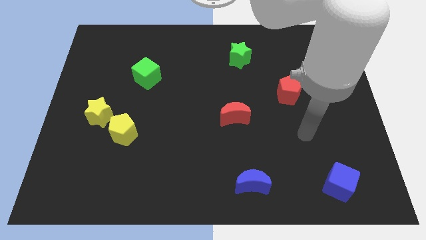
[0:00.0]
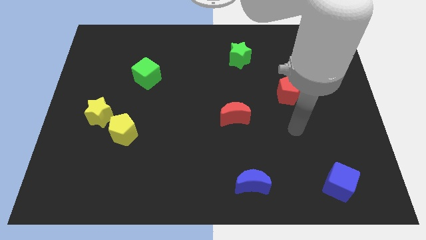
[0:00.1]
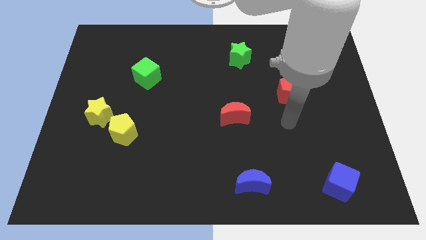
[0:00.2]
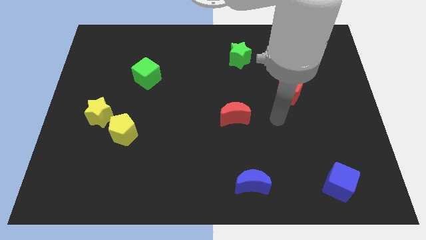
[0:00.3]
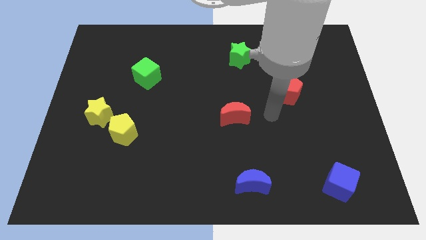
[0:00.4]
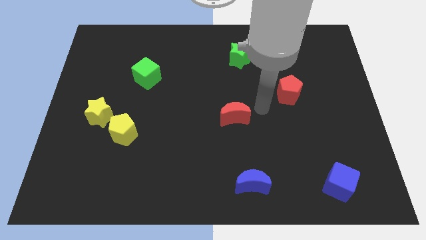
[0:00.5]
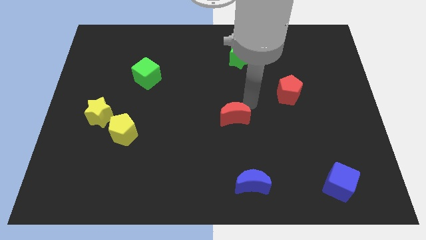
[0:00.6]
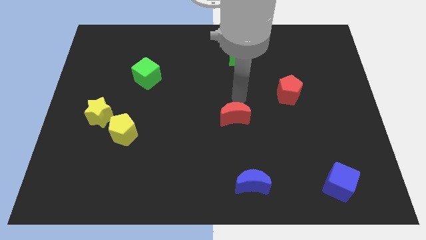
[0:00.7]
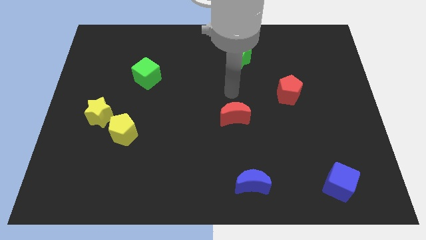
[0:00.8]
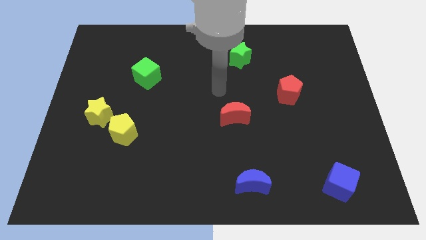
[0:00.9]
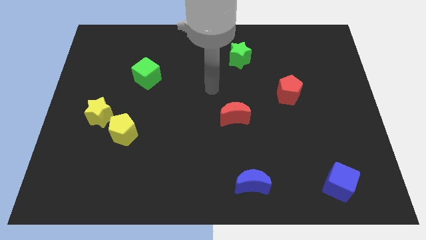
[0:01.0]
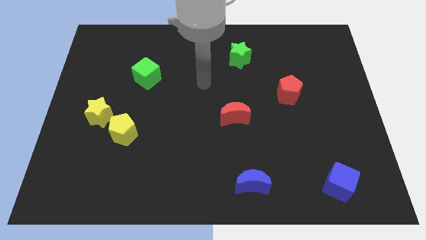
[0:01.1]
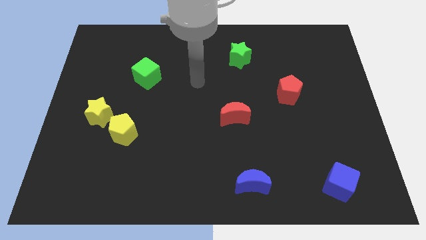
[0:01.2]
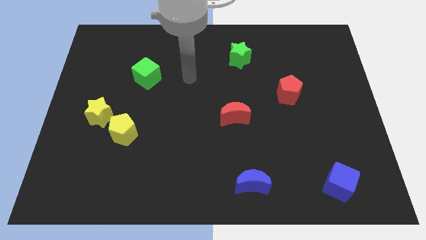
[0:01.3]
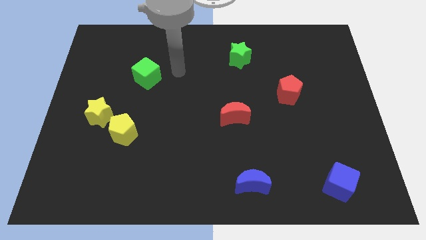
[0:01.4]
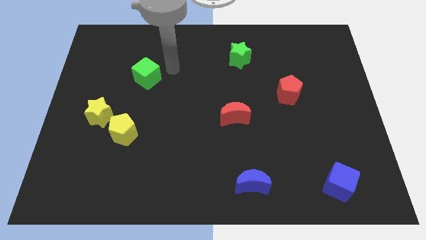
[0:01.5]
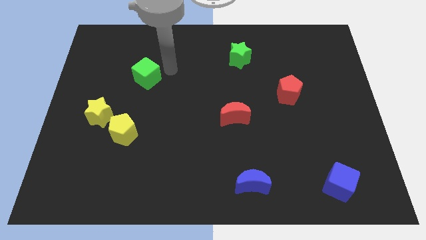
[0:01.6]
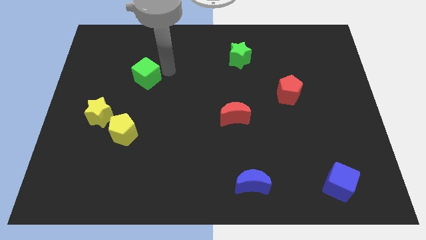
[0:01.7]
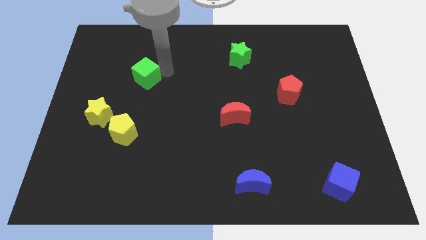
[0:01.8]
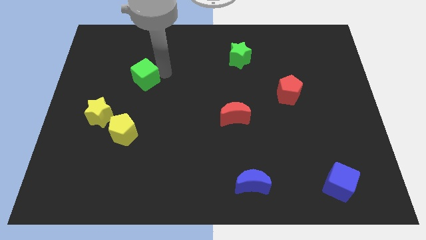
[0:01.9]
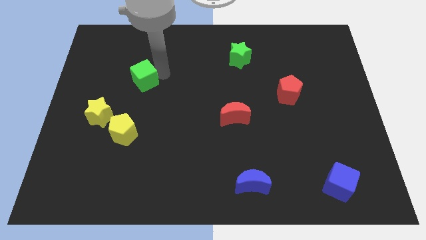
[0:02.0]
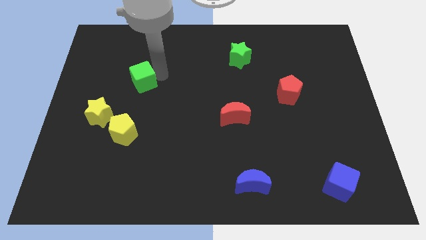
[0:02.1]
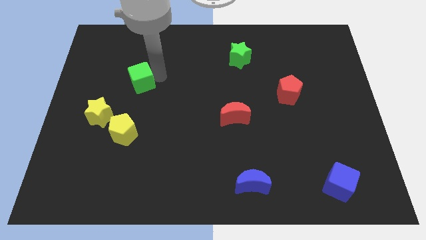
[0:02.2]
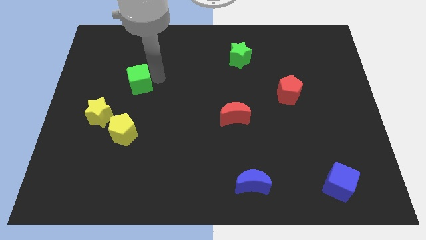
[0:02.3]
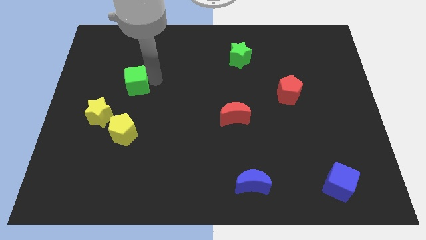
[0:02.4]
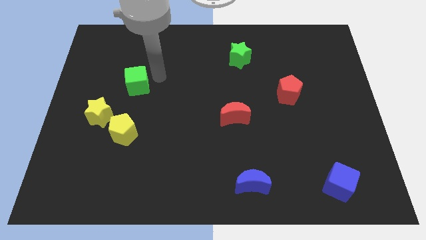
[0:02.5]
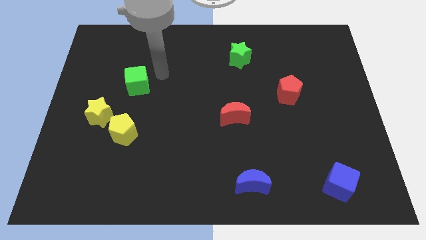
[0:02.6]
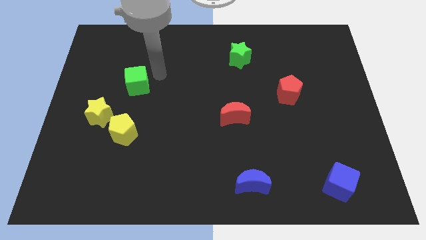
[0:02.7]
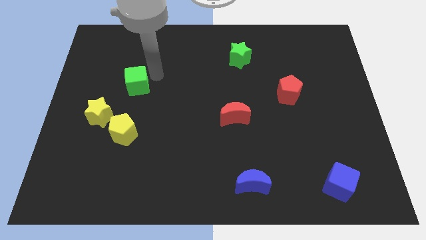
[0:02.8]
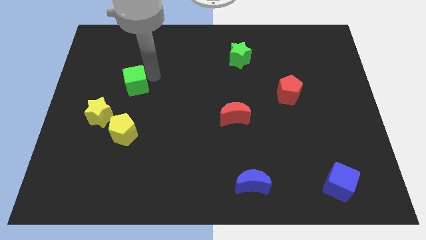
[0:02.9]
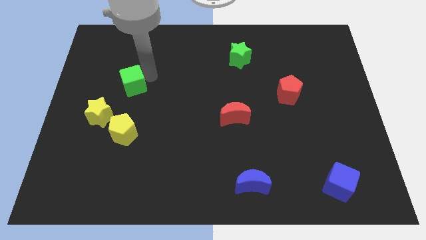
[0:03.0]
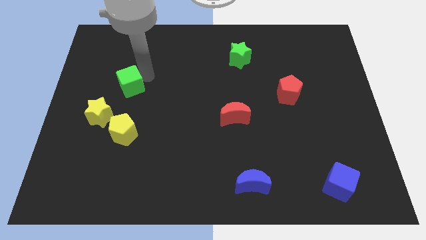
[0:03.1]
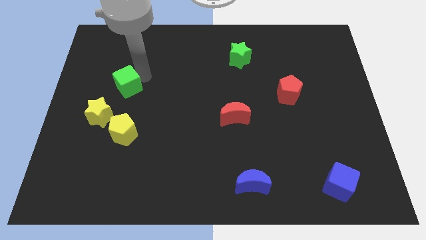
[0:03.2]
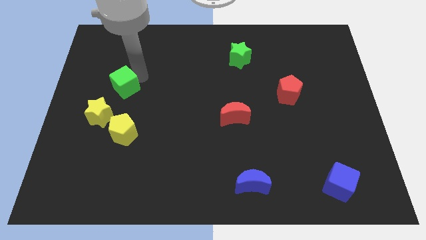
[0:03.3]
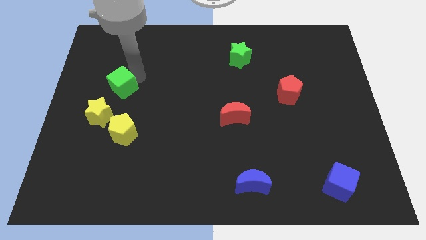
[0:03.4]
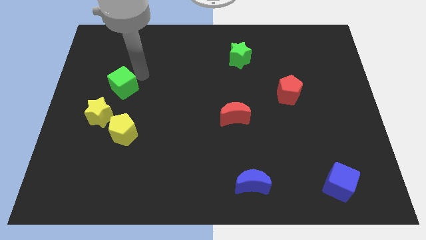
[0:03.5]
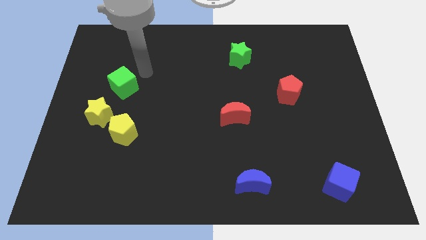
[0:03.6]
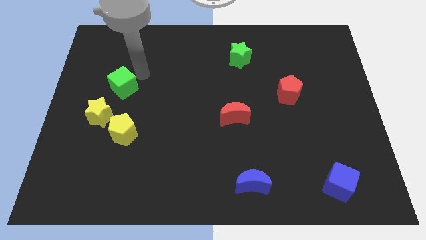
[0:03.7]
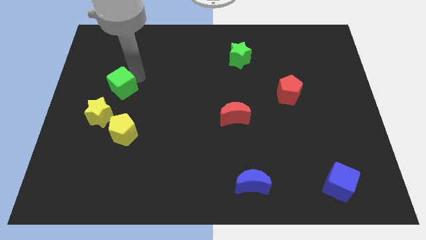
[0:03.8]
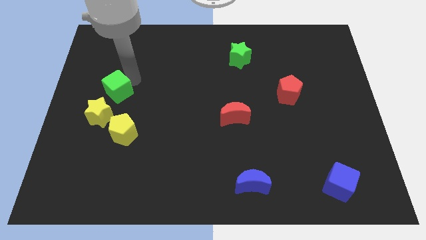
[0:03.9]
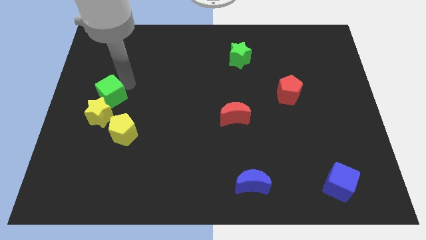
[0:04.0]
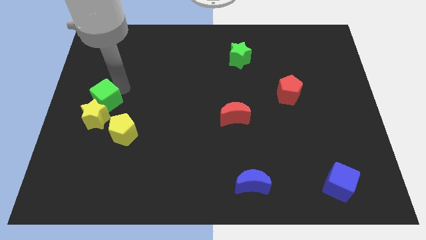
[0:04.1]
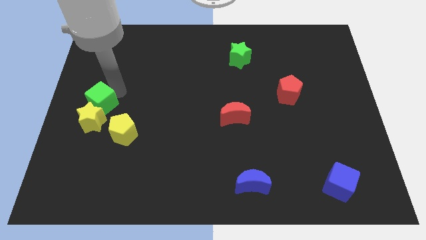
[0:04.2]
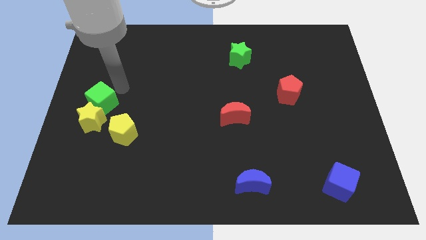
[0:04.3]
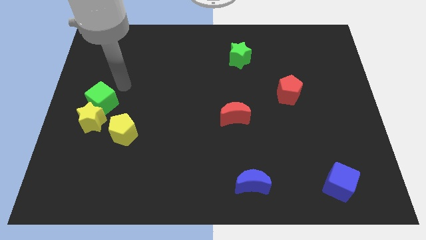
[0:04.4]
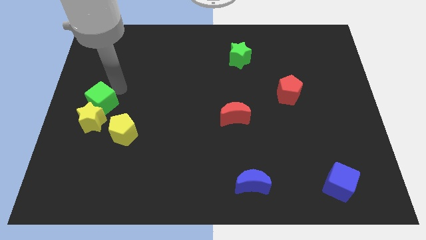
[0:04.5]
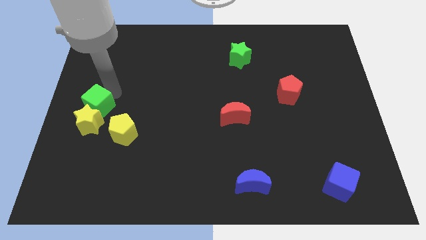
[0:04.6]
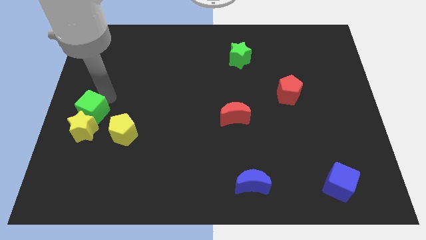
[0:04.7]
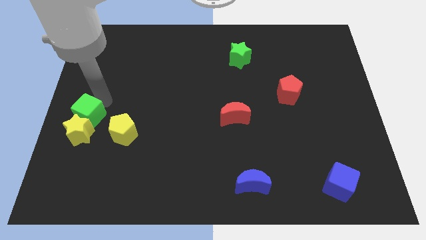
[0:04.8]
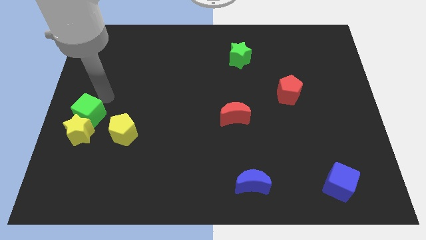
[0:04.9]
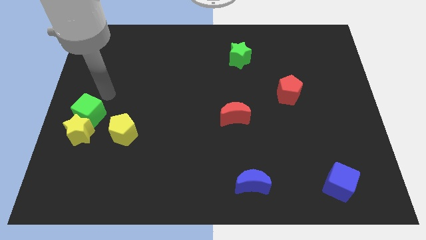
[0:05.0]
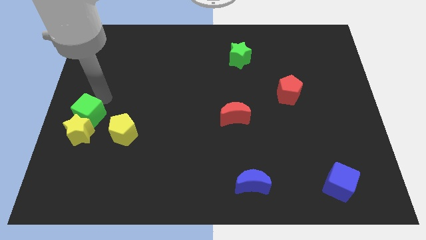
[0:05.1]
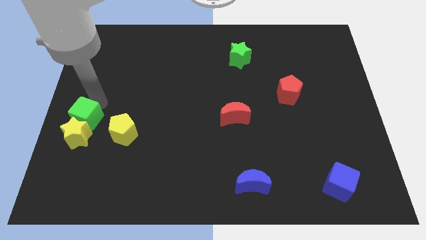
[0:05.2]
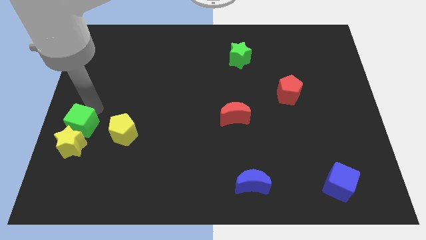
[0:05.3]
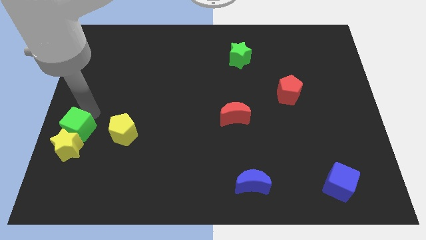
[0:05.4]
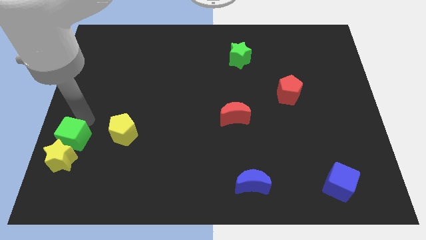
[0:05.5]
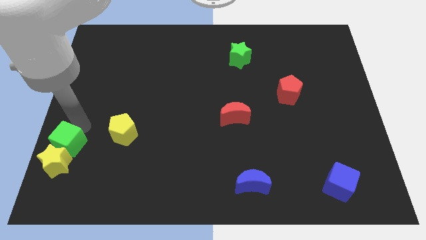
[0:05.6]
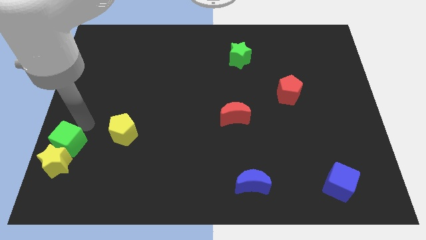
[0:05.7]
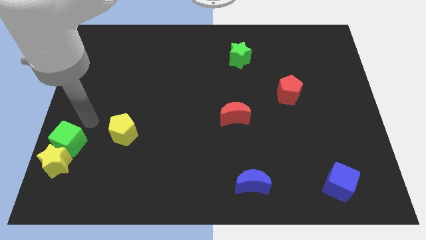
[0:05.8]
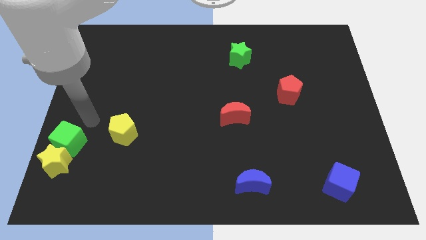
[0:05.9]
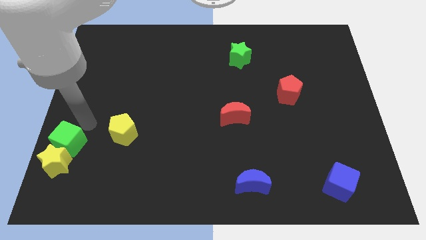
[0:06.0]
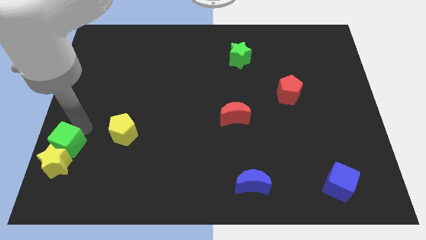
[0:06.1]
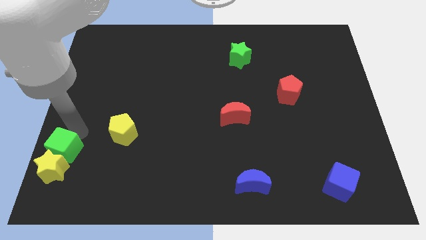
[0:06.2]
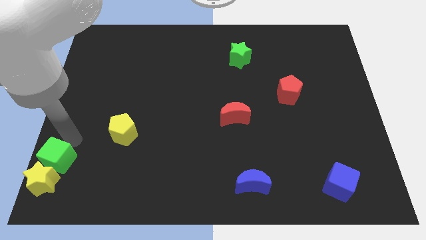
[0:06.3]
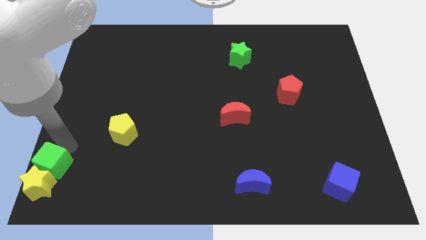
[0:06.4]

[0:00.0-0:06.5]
move the green cube to the bottom left of the board
